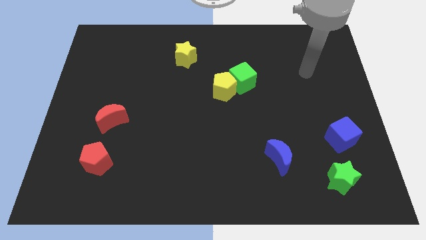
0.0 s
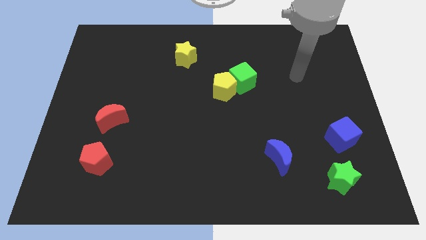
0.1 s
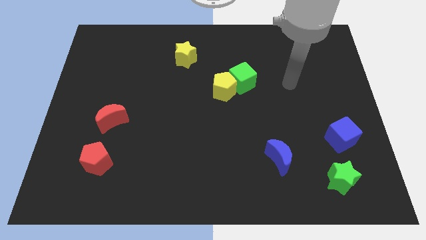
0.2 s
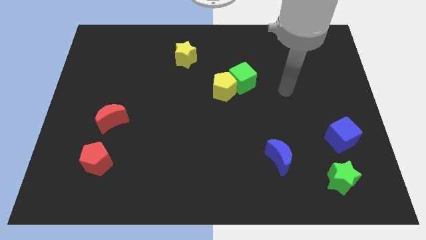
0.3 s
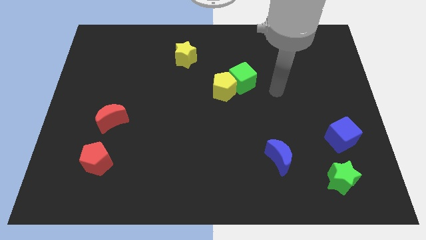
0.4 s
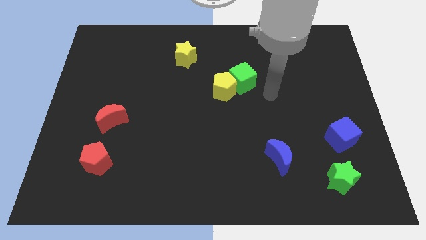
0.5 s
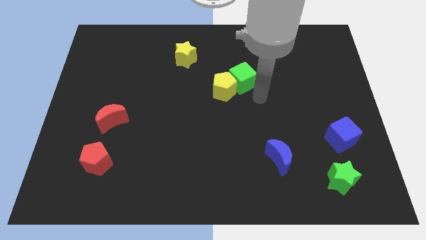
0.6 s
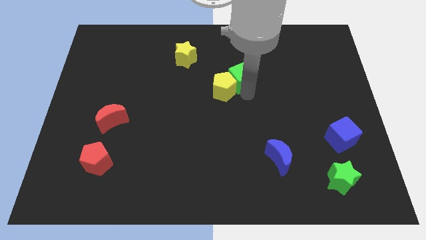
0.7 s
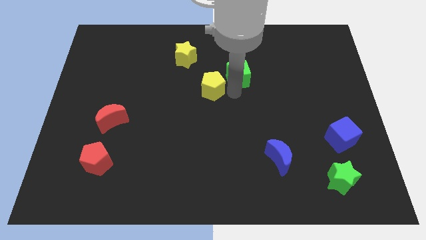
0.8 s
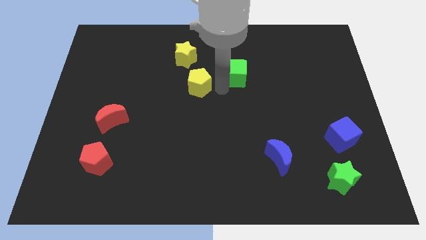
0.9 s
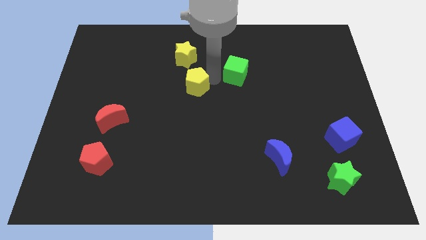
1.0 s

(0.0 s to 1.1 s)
separate the green cube from the yellow pentagon

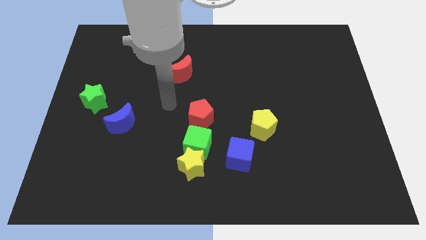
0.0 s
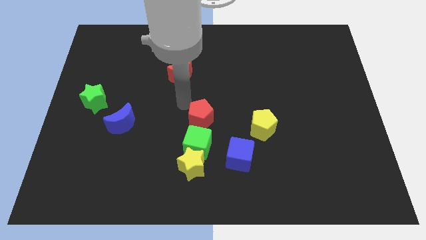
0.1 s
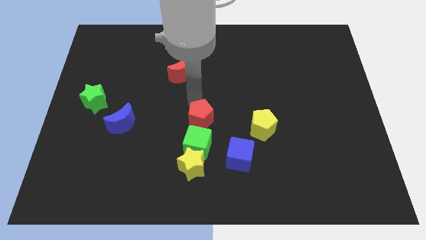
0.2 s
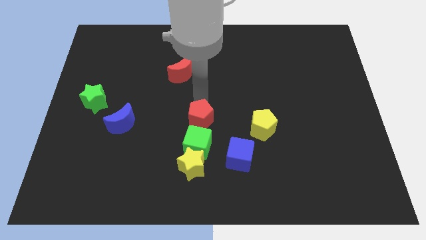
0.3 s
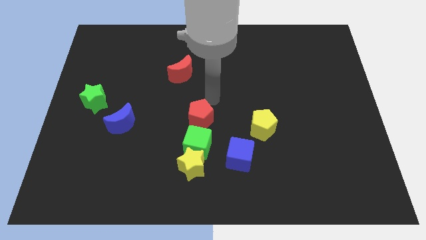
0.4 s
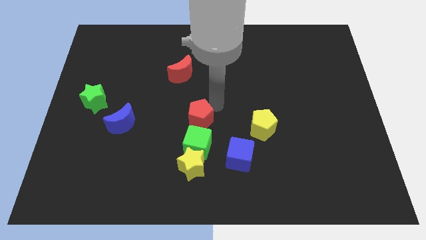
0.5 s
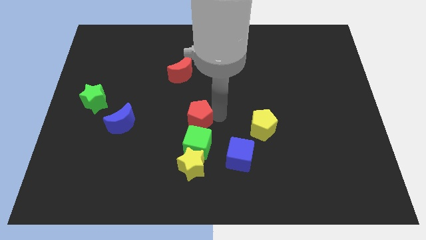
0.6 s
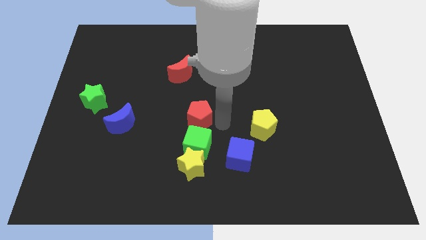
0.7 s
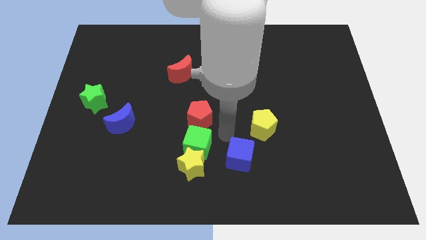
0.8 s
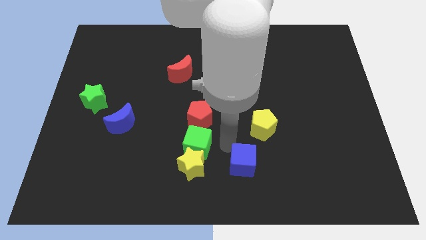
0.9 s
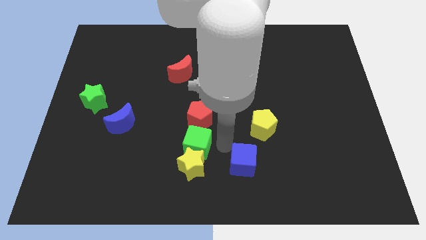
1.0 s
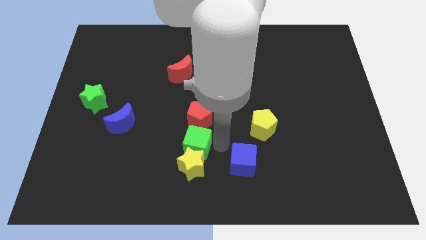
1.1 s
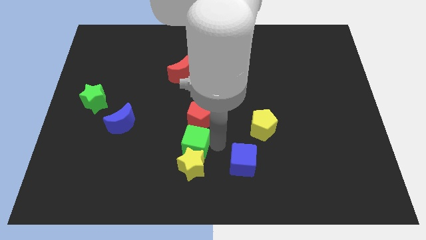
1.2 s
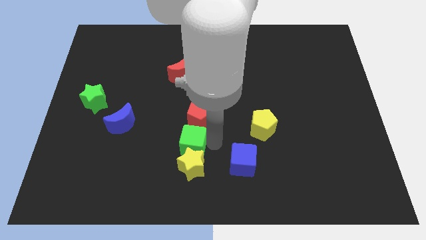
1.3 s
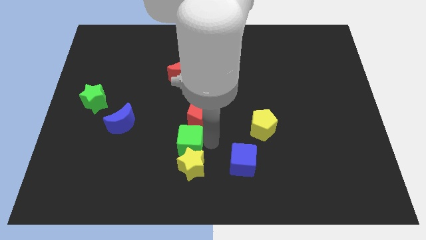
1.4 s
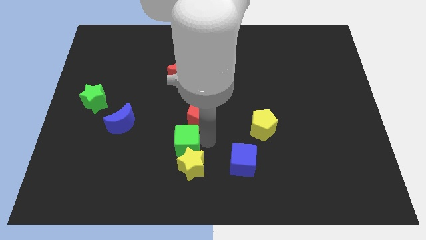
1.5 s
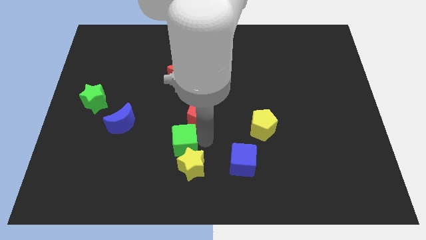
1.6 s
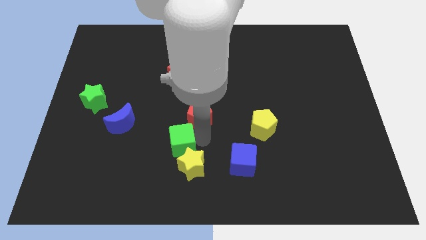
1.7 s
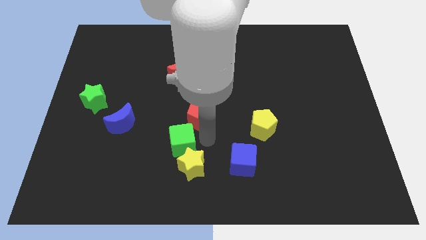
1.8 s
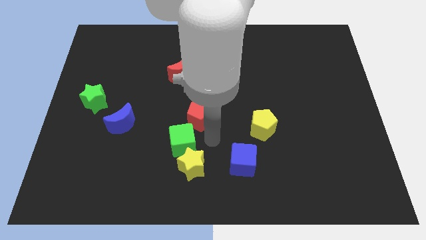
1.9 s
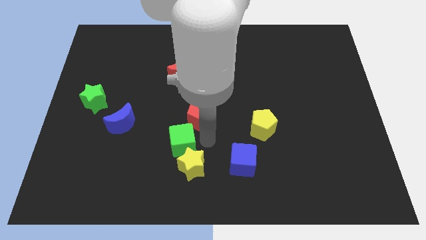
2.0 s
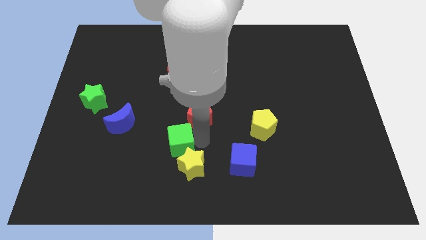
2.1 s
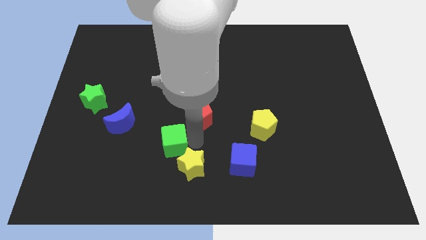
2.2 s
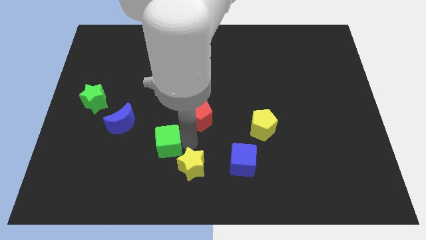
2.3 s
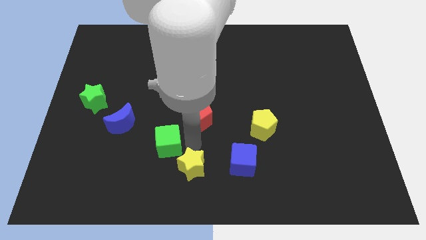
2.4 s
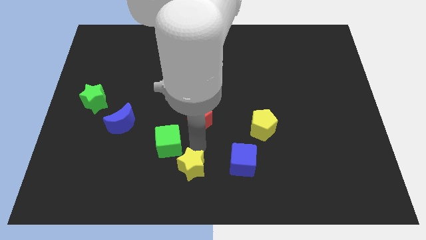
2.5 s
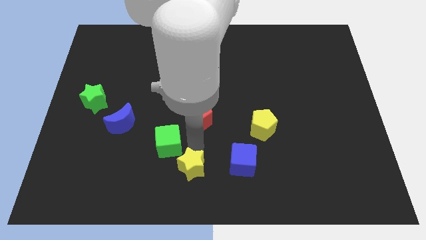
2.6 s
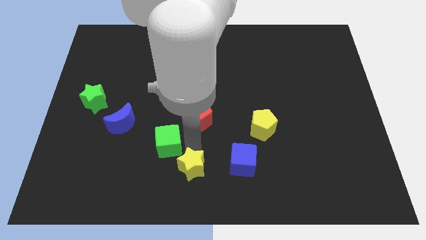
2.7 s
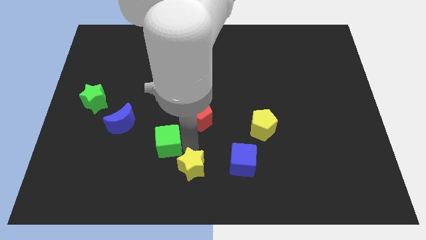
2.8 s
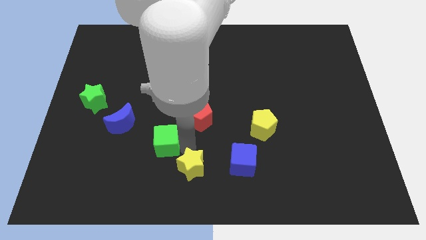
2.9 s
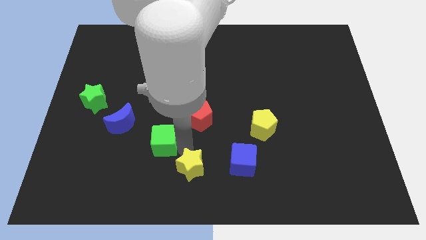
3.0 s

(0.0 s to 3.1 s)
move the green cube away from the clump

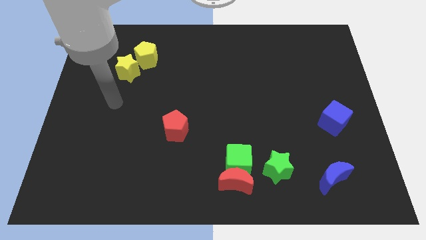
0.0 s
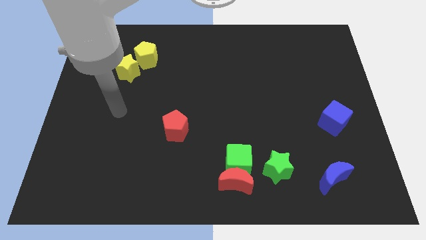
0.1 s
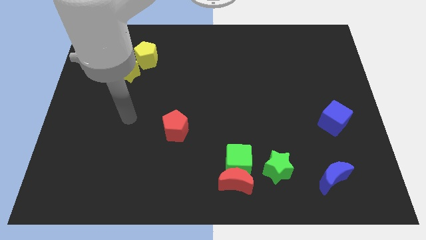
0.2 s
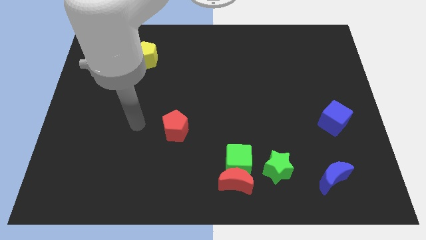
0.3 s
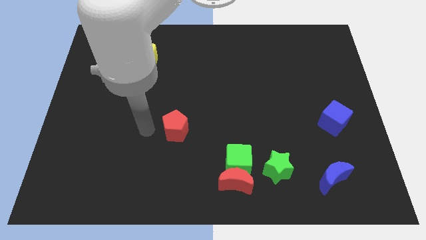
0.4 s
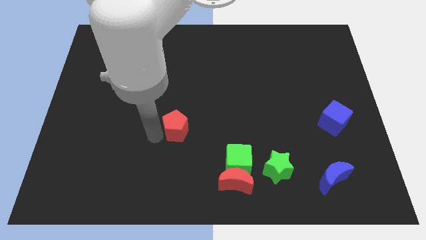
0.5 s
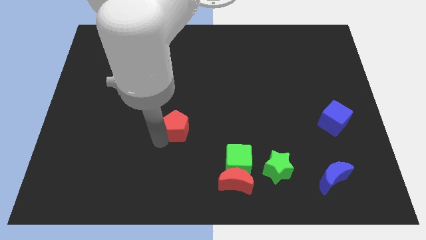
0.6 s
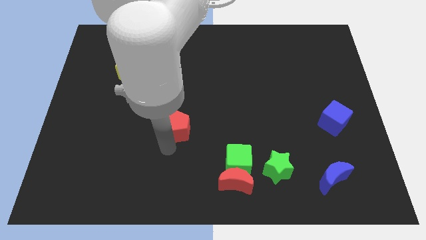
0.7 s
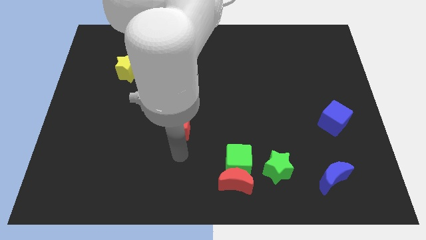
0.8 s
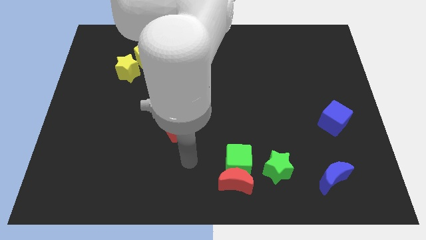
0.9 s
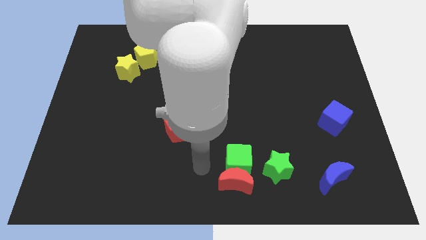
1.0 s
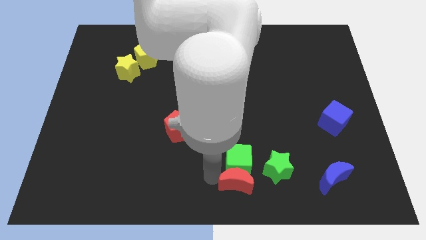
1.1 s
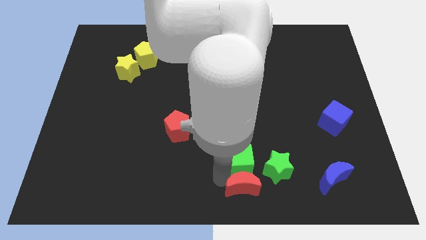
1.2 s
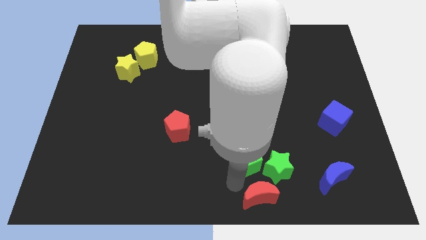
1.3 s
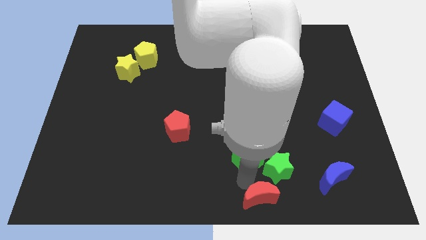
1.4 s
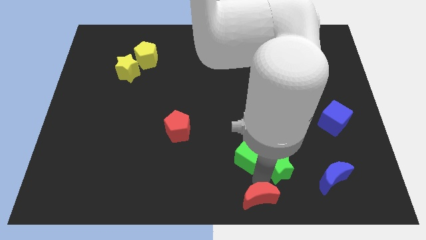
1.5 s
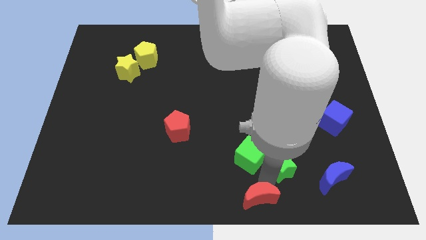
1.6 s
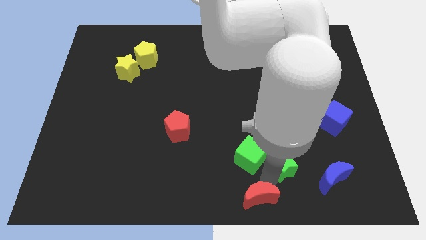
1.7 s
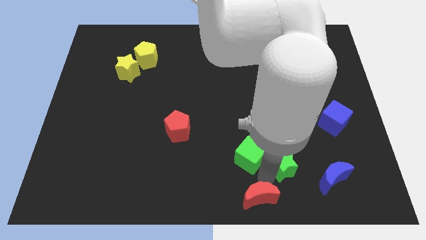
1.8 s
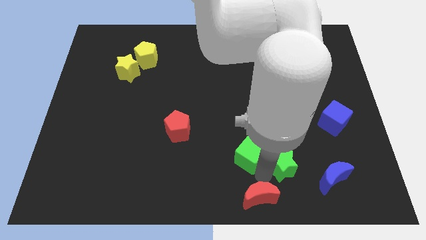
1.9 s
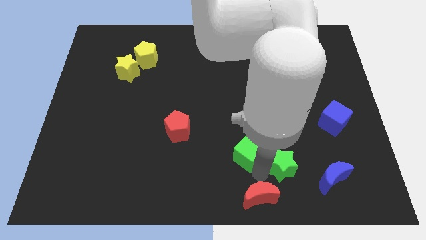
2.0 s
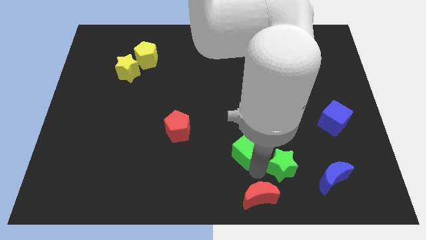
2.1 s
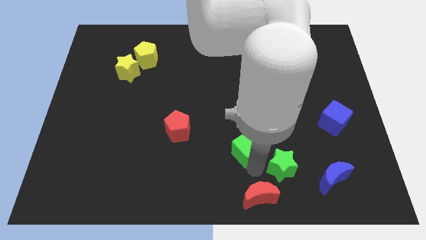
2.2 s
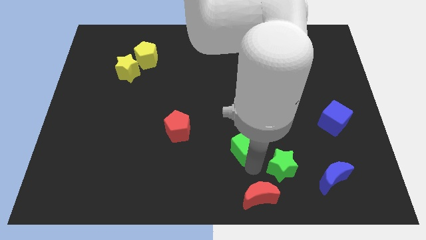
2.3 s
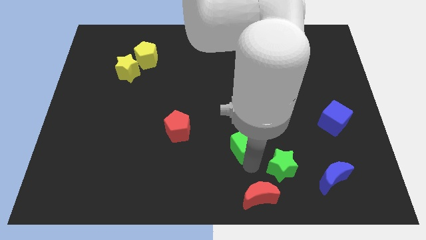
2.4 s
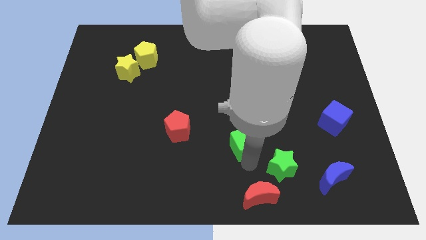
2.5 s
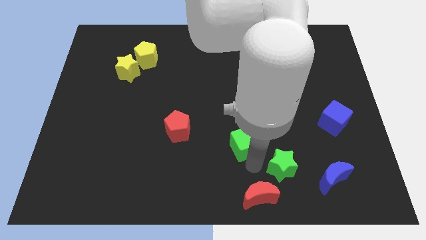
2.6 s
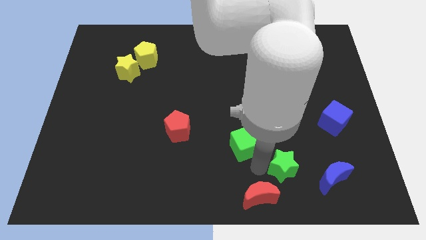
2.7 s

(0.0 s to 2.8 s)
separate the green cube from the red moon and green star

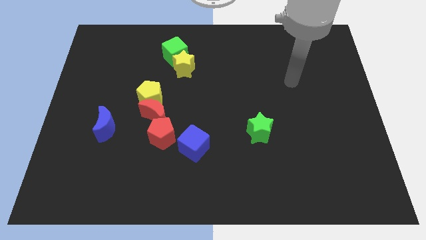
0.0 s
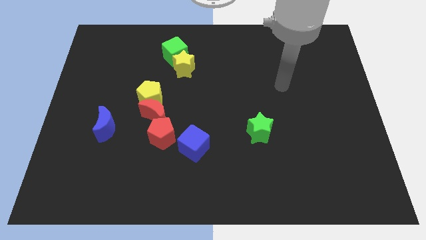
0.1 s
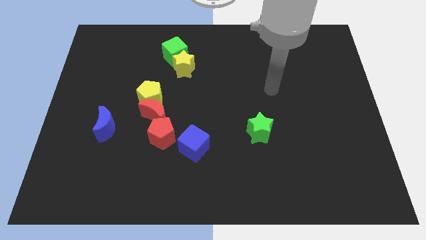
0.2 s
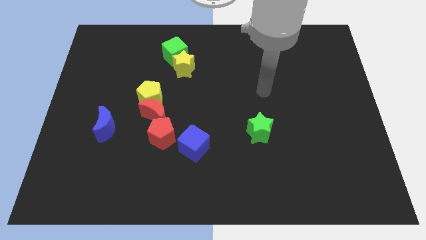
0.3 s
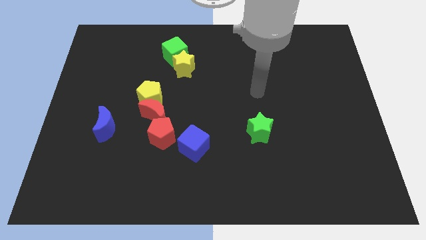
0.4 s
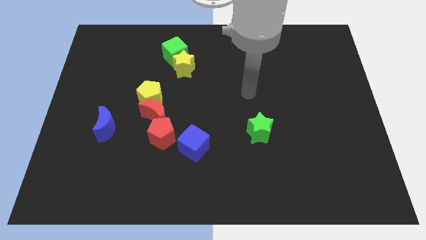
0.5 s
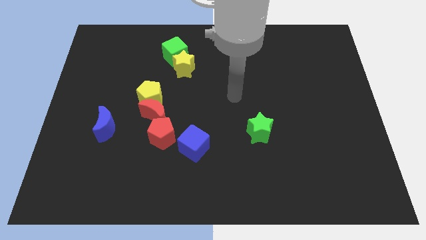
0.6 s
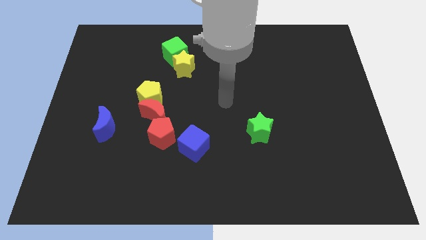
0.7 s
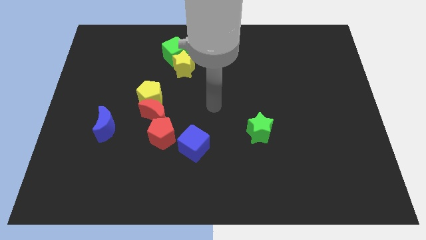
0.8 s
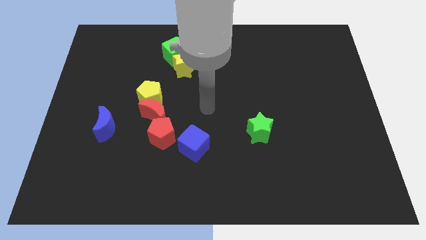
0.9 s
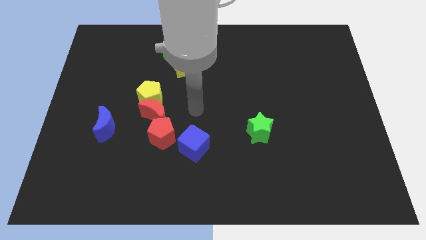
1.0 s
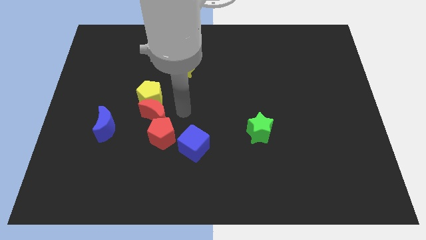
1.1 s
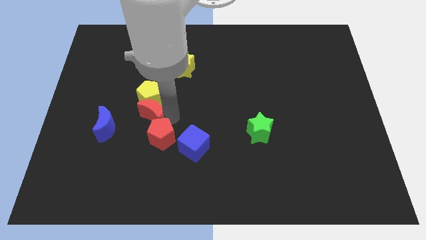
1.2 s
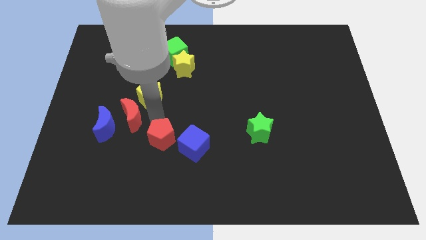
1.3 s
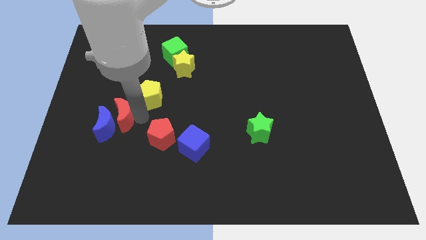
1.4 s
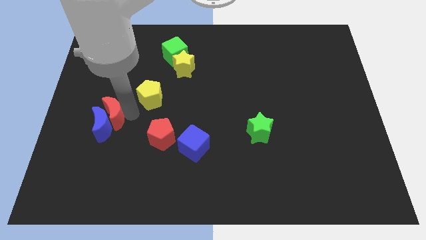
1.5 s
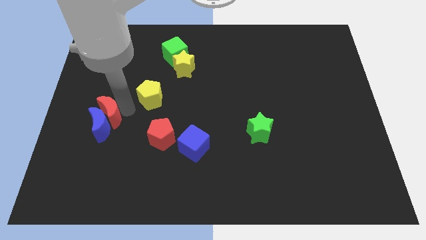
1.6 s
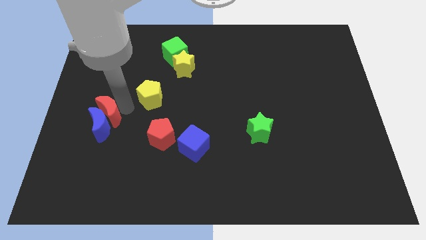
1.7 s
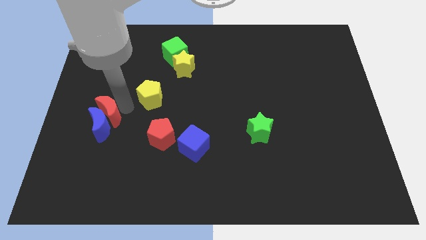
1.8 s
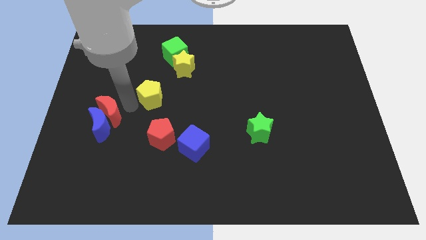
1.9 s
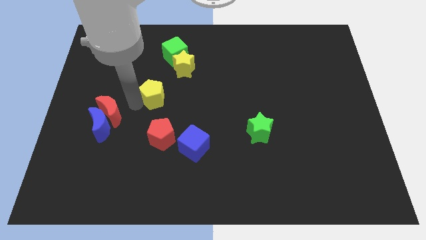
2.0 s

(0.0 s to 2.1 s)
move the yellow pentagon away from the red moon

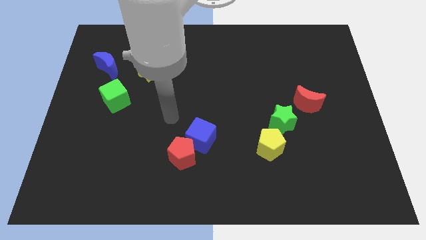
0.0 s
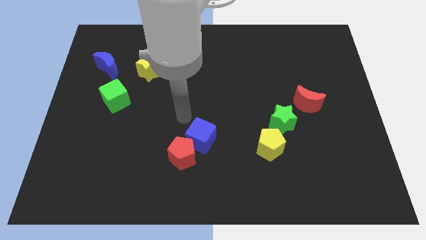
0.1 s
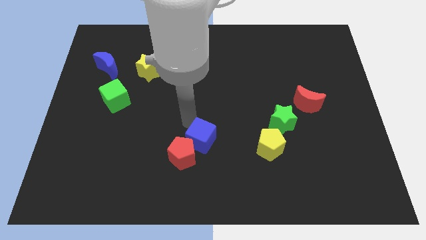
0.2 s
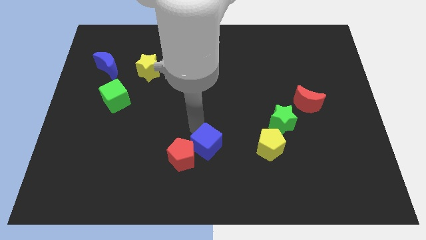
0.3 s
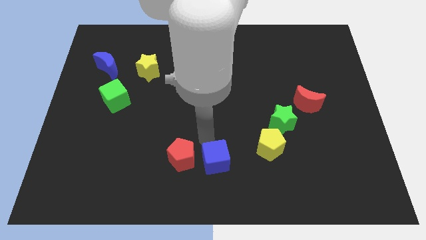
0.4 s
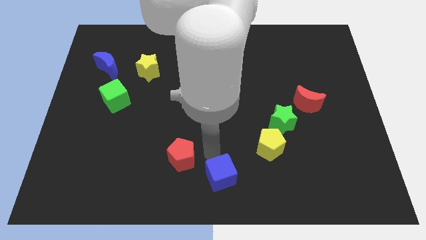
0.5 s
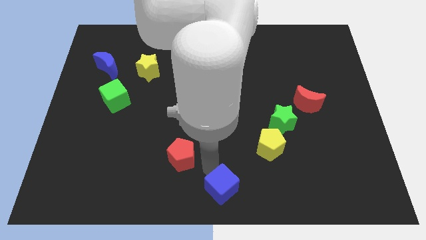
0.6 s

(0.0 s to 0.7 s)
separate the red pentagon from the blue cube
